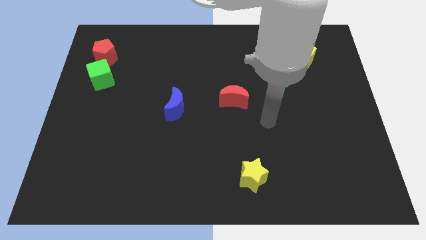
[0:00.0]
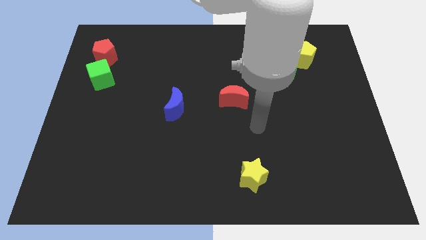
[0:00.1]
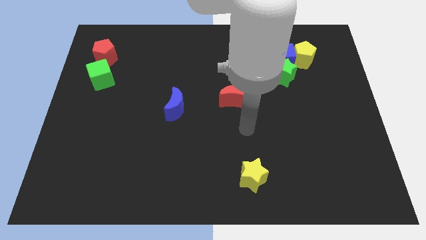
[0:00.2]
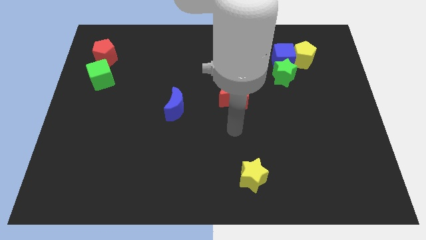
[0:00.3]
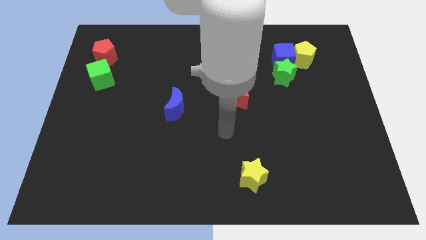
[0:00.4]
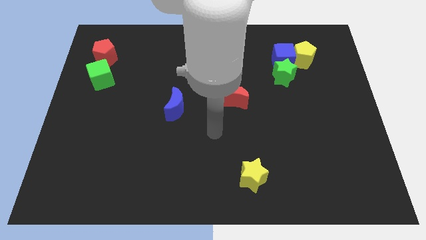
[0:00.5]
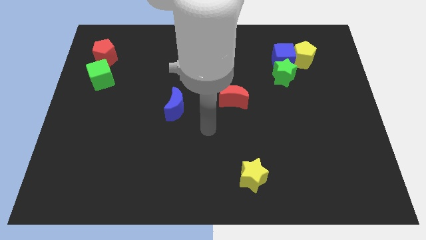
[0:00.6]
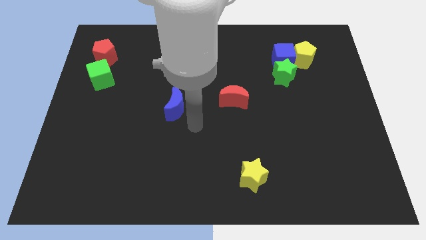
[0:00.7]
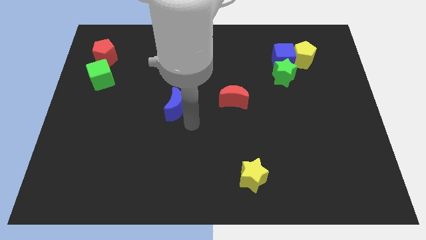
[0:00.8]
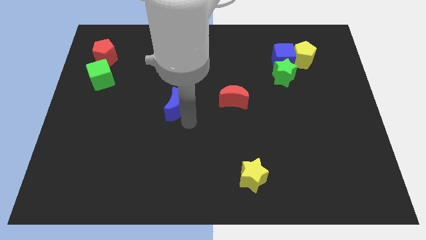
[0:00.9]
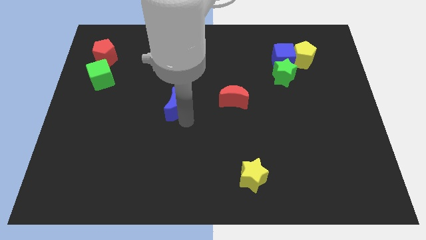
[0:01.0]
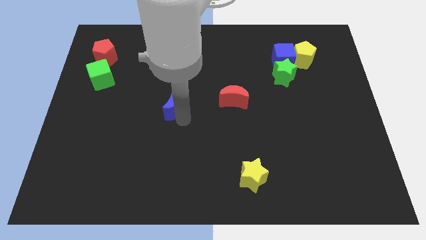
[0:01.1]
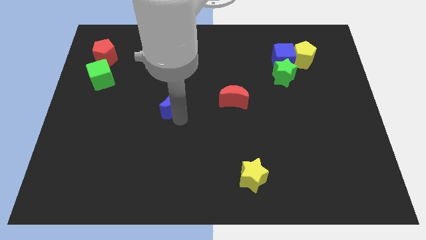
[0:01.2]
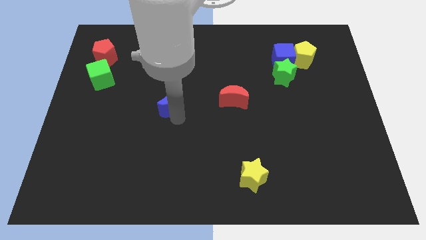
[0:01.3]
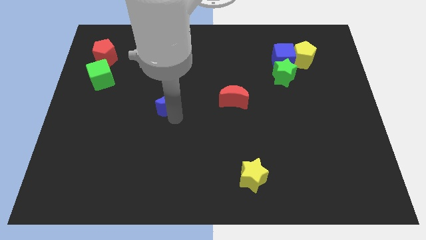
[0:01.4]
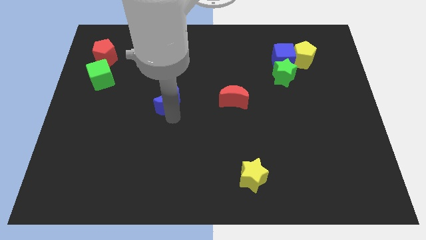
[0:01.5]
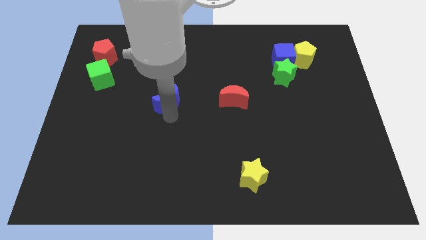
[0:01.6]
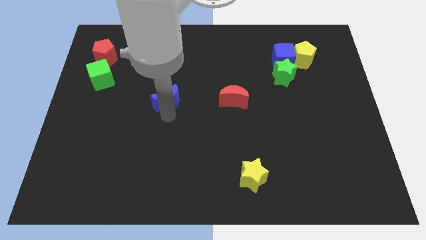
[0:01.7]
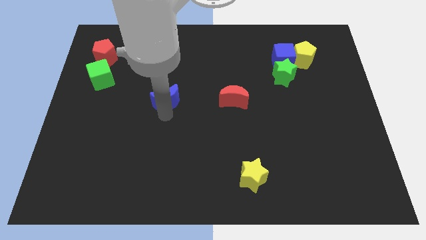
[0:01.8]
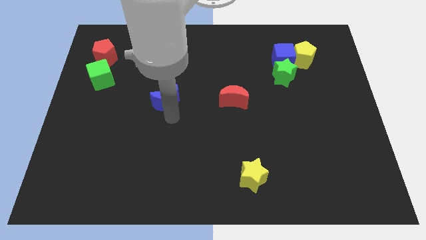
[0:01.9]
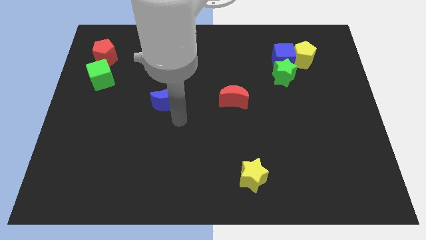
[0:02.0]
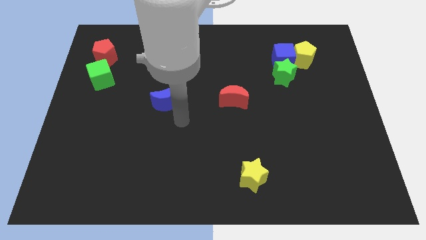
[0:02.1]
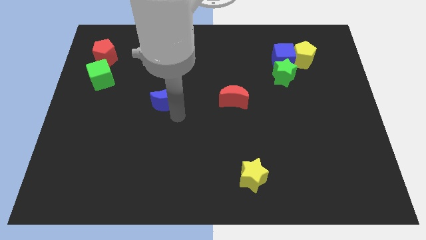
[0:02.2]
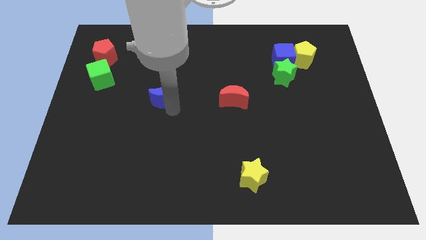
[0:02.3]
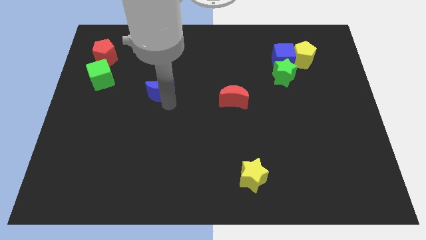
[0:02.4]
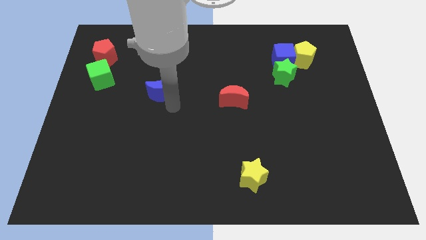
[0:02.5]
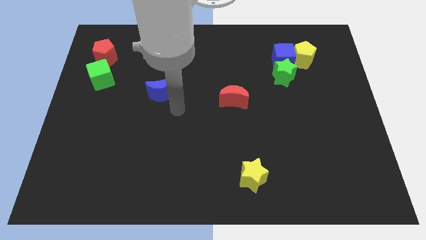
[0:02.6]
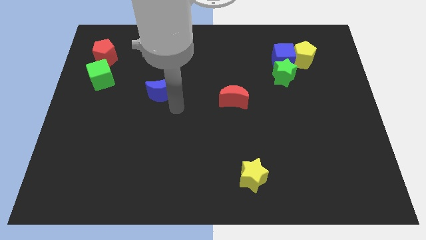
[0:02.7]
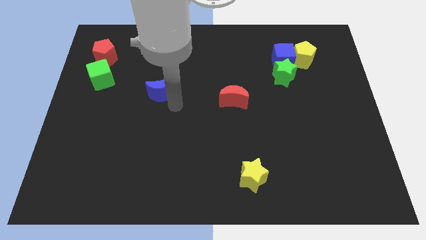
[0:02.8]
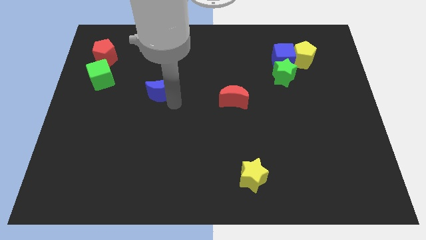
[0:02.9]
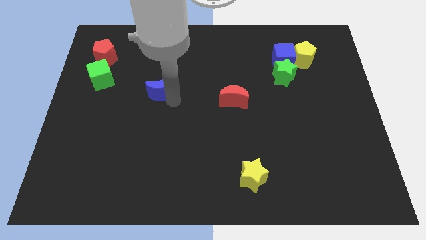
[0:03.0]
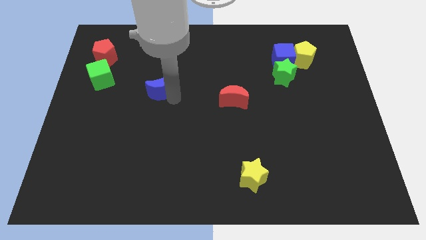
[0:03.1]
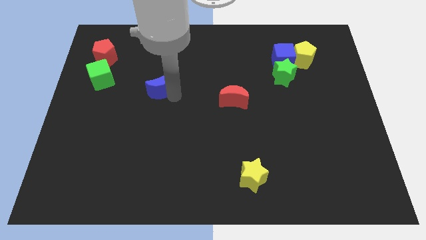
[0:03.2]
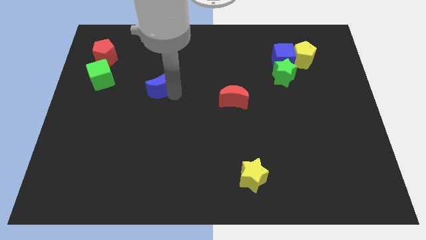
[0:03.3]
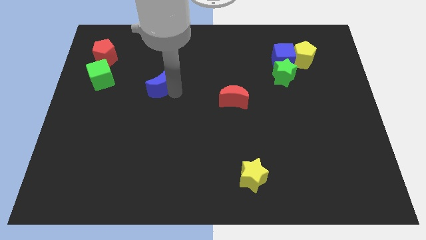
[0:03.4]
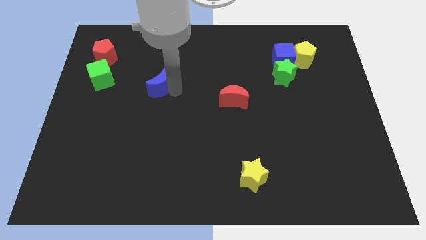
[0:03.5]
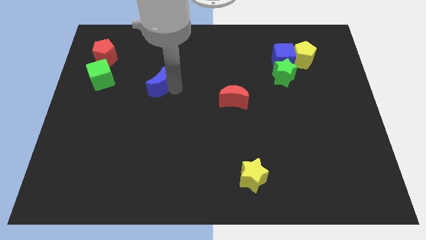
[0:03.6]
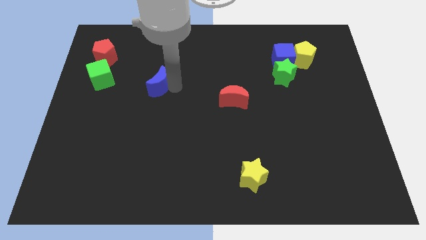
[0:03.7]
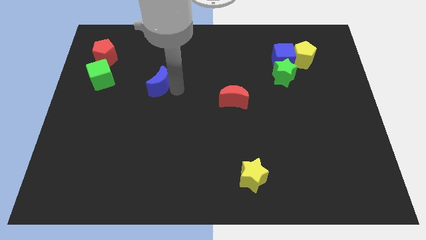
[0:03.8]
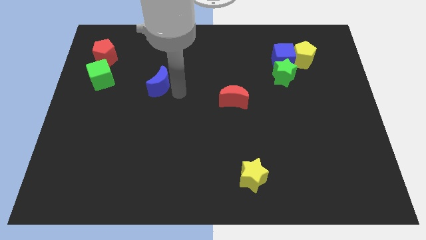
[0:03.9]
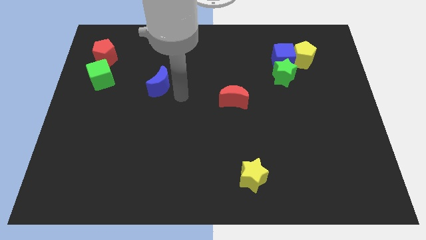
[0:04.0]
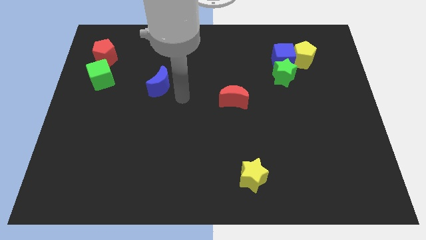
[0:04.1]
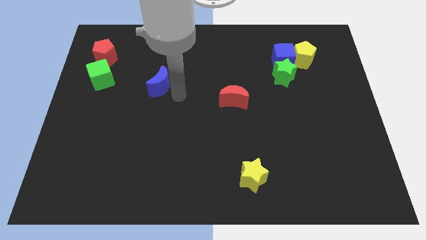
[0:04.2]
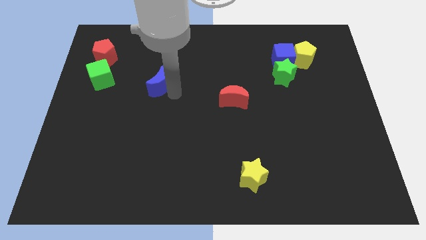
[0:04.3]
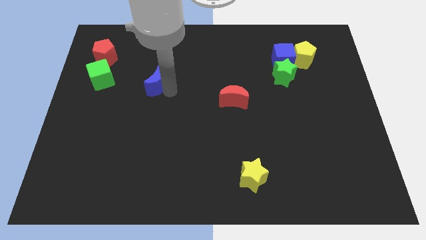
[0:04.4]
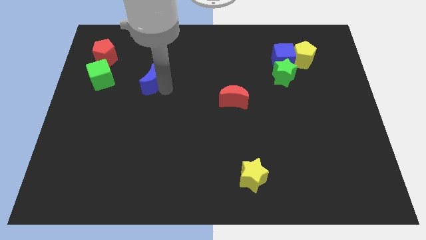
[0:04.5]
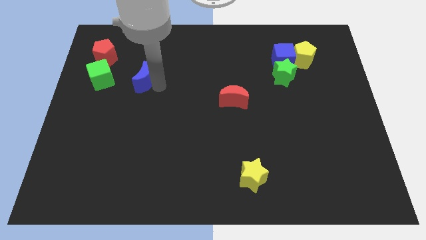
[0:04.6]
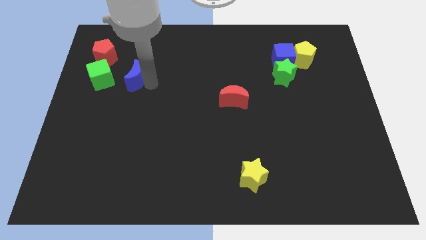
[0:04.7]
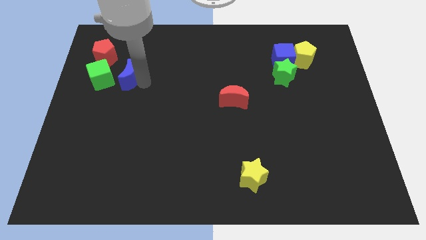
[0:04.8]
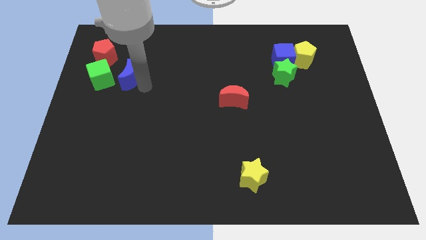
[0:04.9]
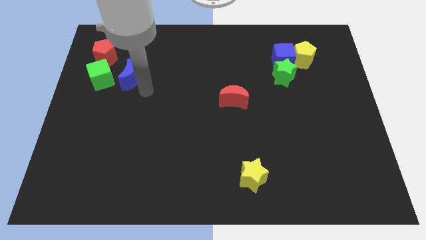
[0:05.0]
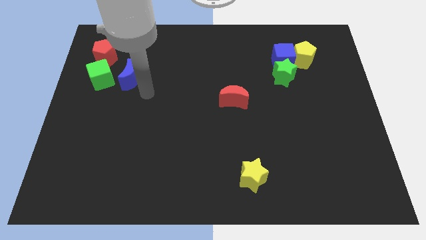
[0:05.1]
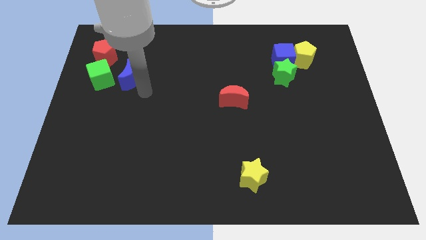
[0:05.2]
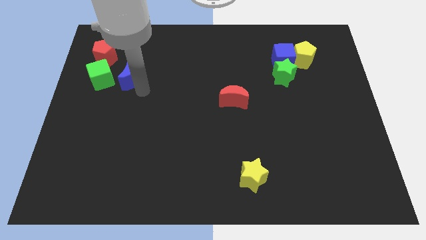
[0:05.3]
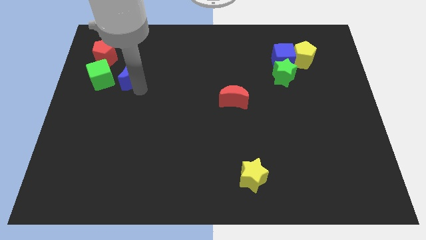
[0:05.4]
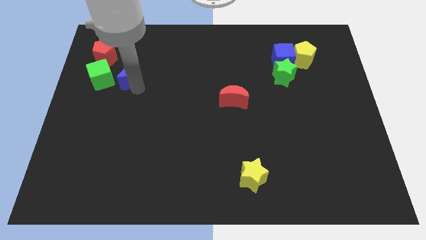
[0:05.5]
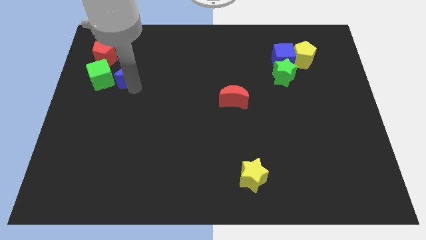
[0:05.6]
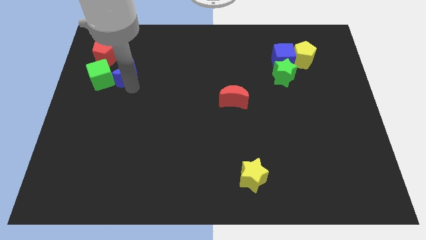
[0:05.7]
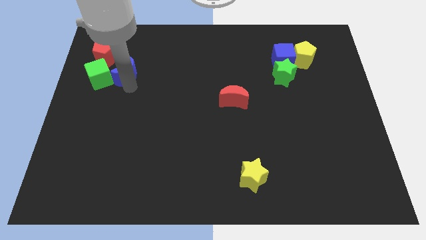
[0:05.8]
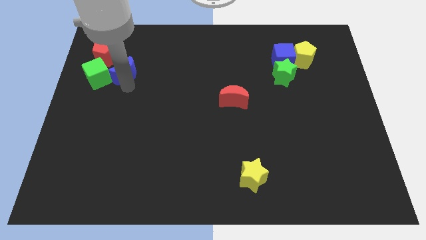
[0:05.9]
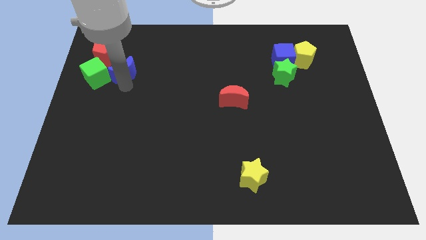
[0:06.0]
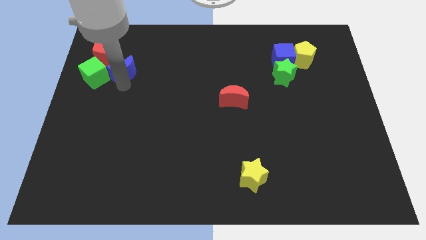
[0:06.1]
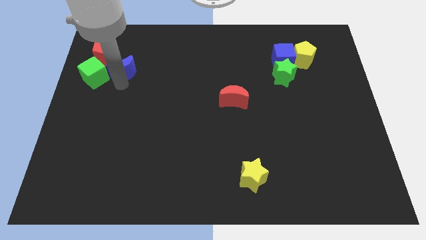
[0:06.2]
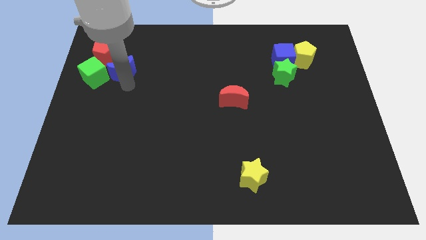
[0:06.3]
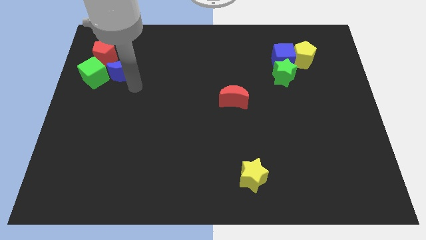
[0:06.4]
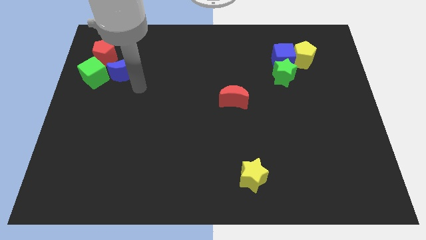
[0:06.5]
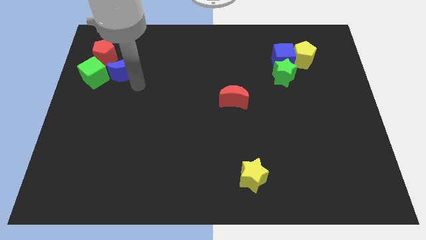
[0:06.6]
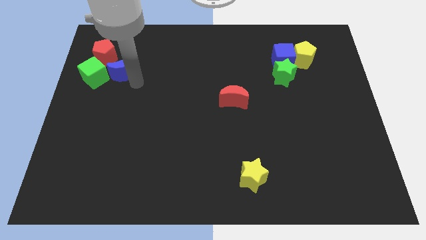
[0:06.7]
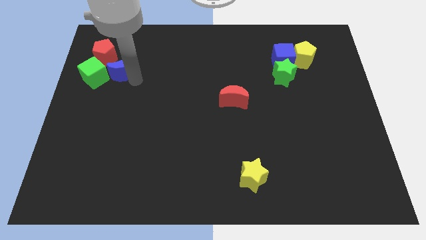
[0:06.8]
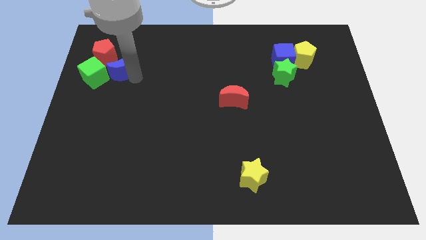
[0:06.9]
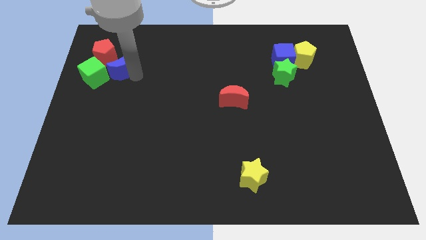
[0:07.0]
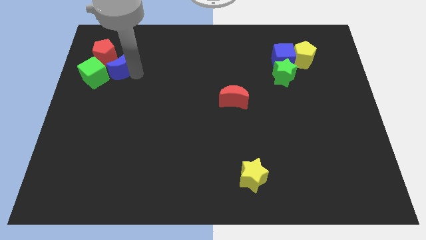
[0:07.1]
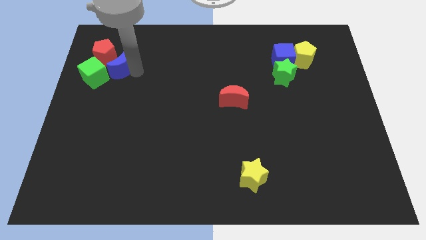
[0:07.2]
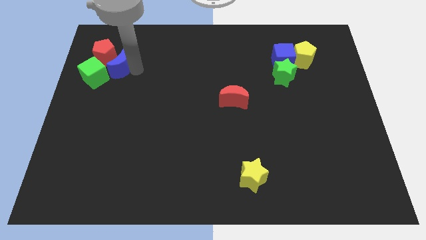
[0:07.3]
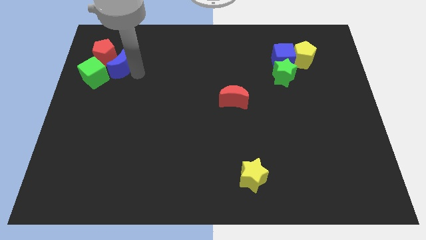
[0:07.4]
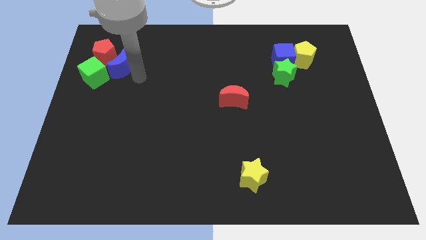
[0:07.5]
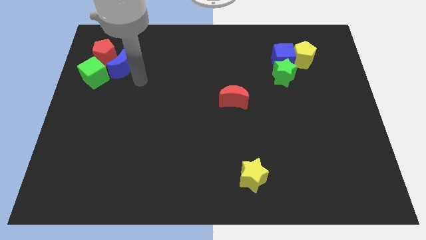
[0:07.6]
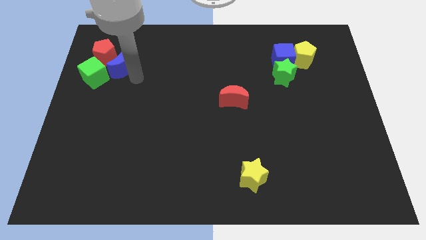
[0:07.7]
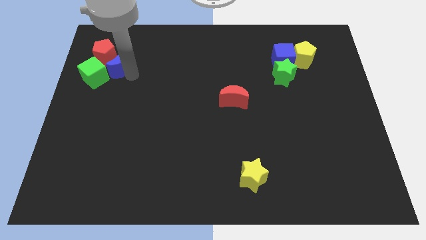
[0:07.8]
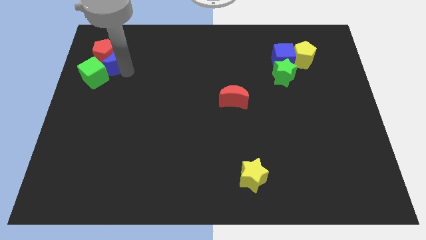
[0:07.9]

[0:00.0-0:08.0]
slide the blue moon towards the red pentagon

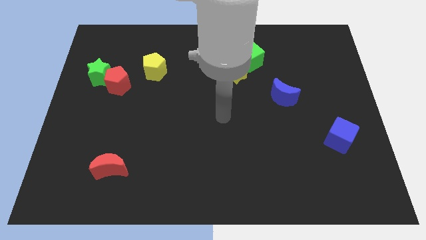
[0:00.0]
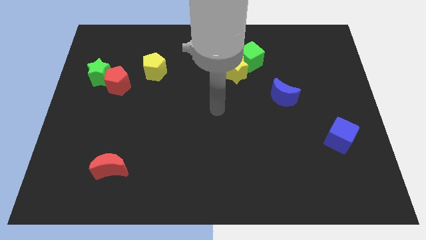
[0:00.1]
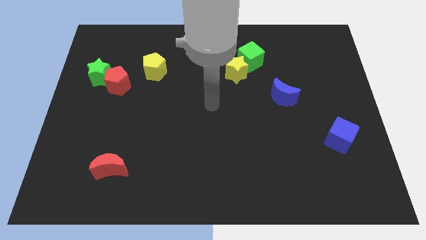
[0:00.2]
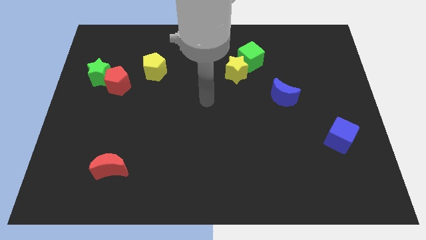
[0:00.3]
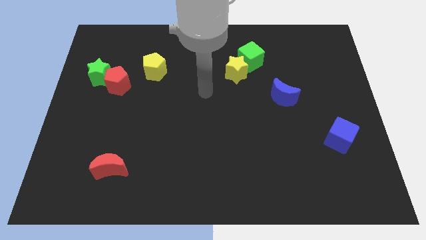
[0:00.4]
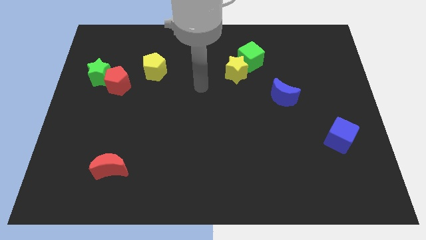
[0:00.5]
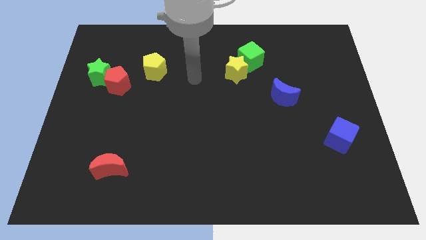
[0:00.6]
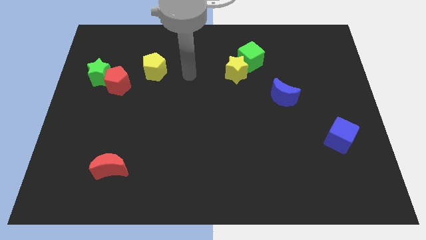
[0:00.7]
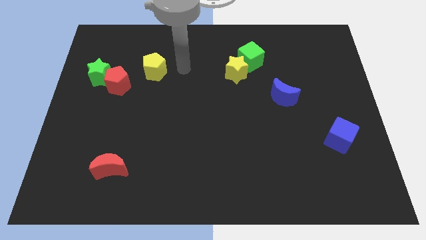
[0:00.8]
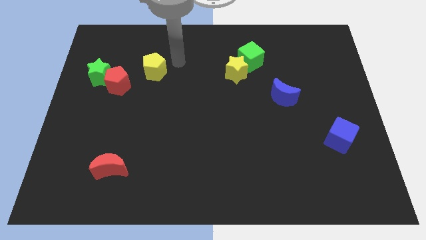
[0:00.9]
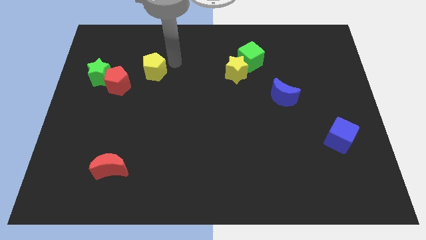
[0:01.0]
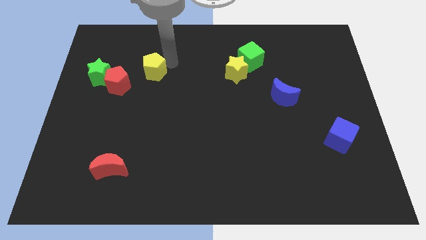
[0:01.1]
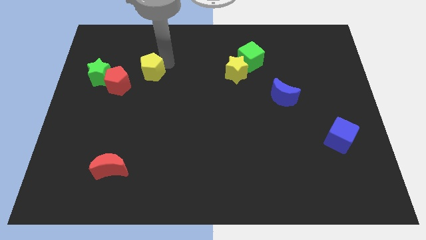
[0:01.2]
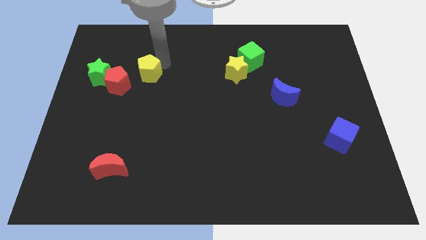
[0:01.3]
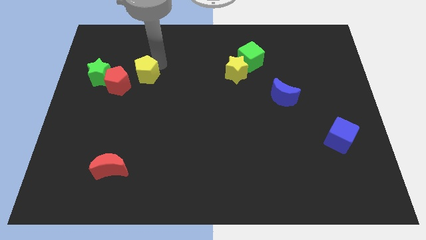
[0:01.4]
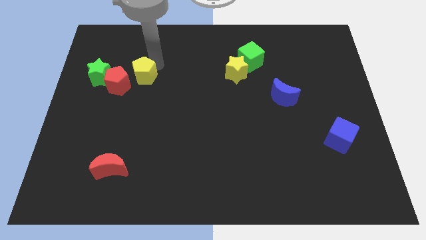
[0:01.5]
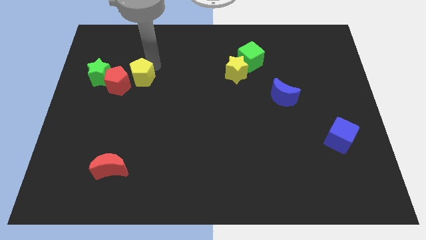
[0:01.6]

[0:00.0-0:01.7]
put the yellow pentagon towards the red pentagon
